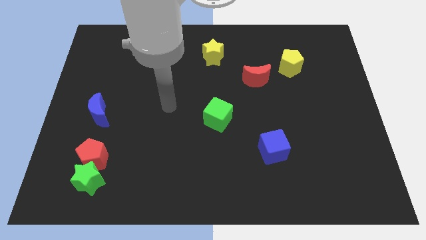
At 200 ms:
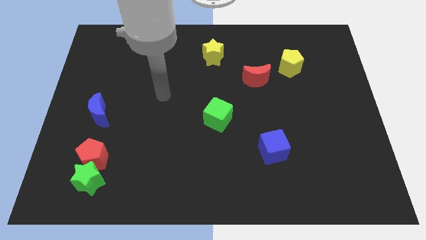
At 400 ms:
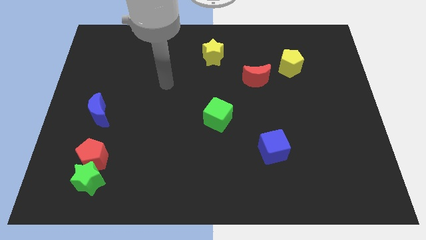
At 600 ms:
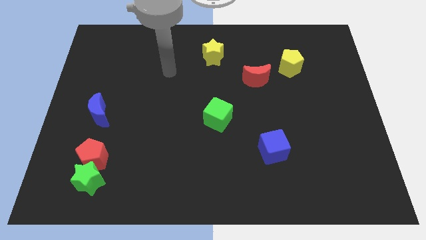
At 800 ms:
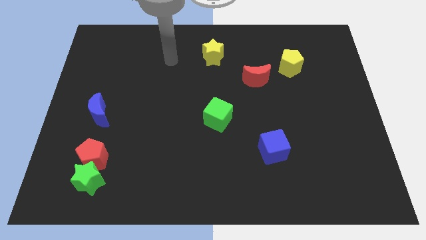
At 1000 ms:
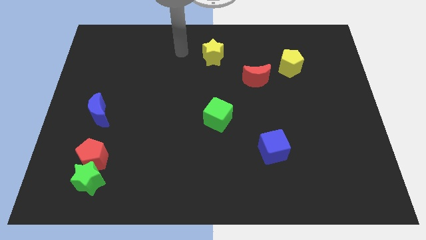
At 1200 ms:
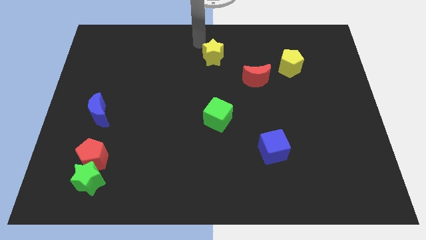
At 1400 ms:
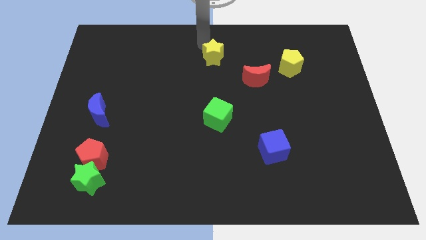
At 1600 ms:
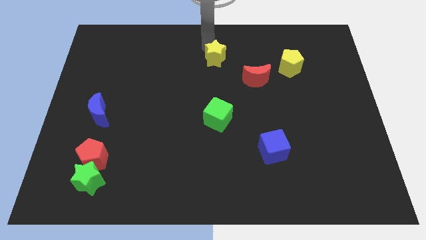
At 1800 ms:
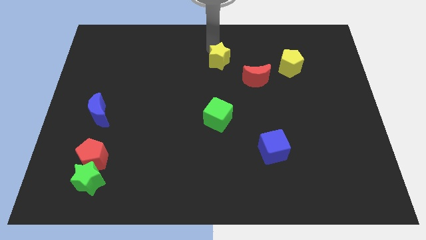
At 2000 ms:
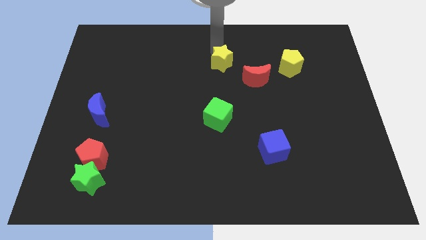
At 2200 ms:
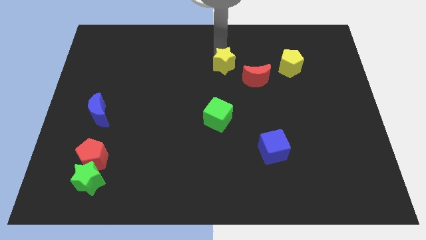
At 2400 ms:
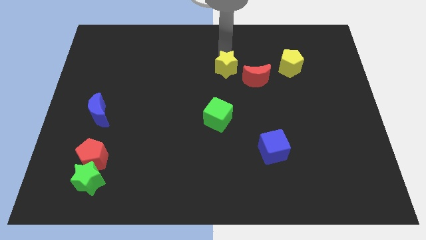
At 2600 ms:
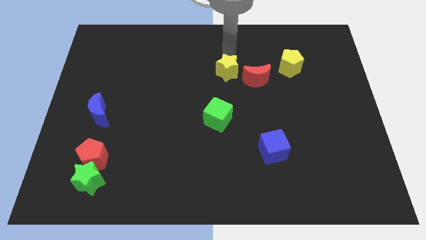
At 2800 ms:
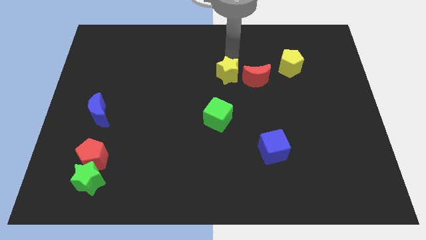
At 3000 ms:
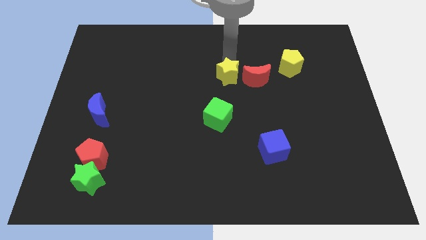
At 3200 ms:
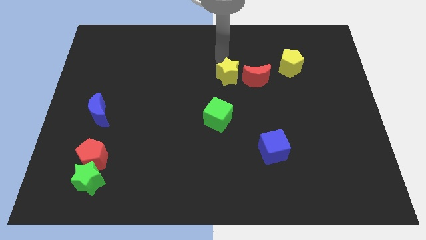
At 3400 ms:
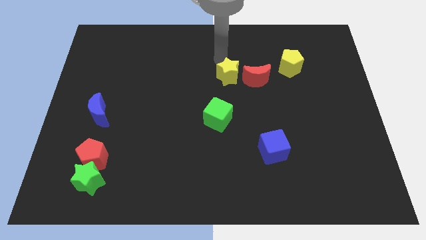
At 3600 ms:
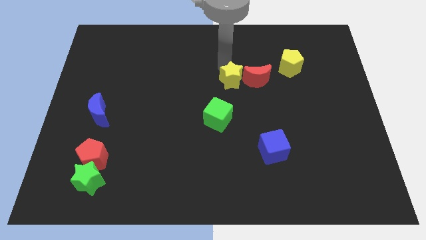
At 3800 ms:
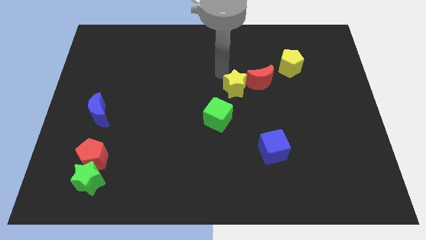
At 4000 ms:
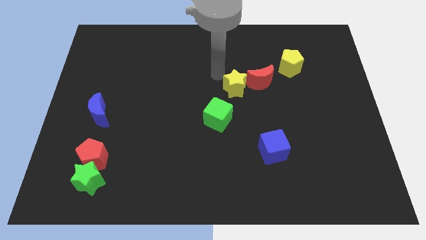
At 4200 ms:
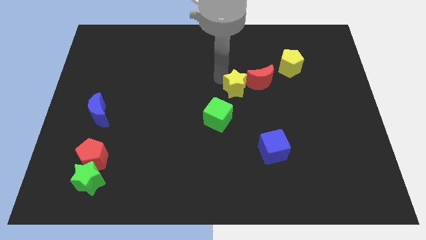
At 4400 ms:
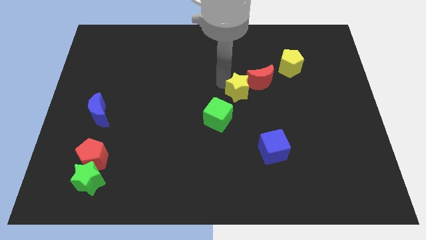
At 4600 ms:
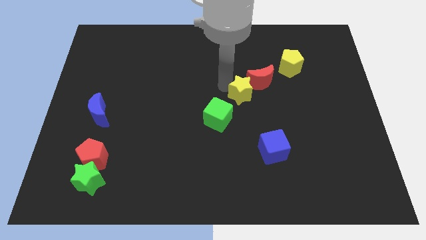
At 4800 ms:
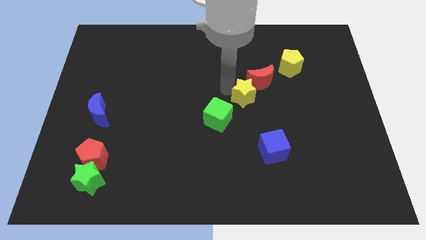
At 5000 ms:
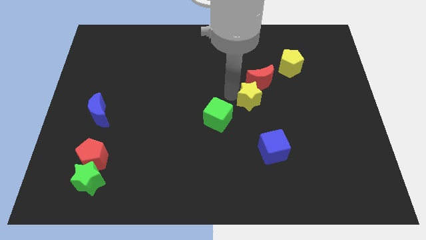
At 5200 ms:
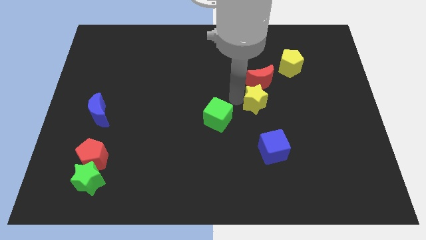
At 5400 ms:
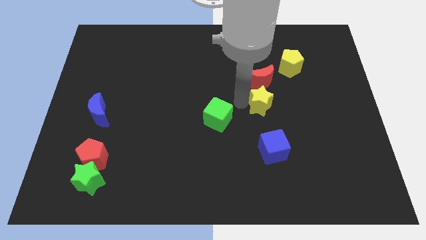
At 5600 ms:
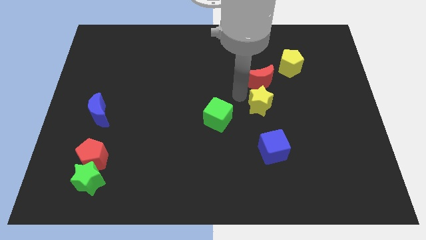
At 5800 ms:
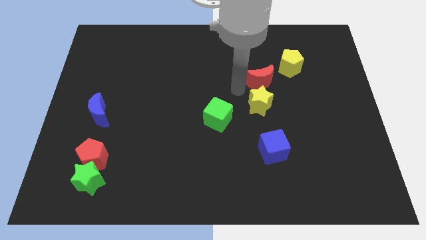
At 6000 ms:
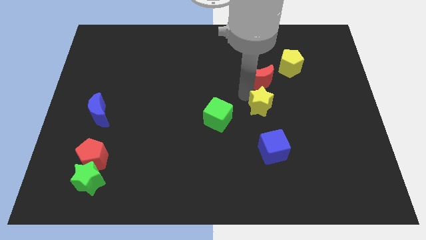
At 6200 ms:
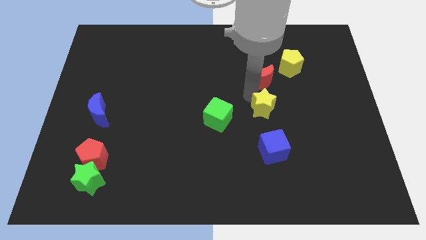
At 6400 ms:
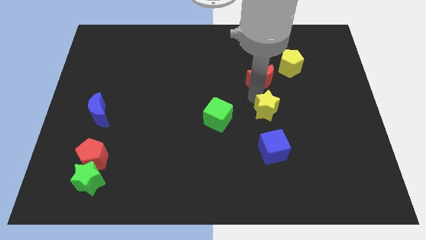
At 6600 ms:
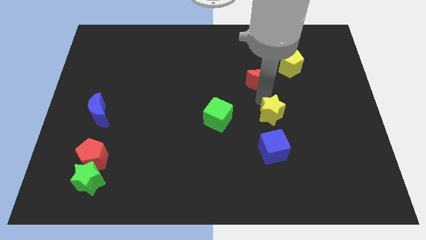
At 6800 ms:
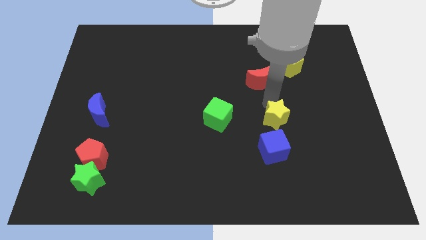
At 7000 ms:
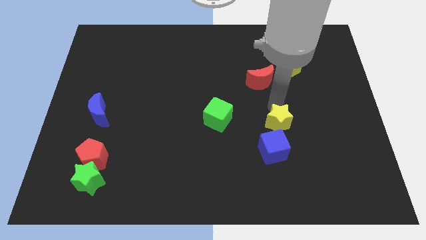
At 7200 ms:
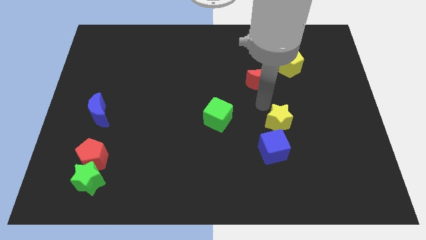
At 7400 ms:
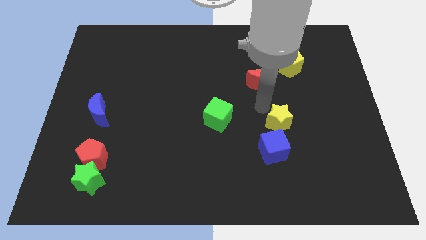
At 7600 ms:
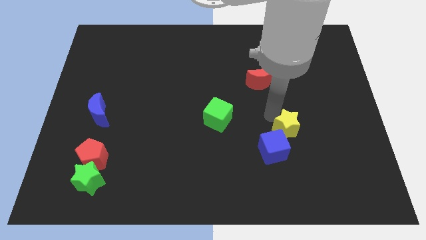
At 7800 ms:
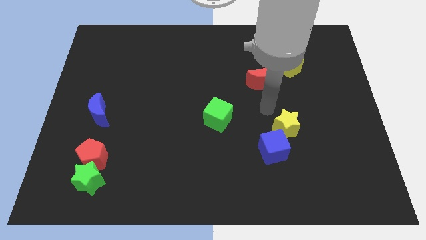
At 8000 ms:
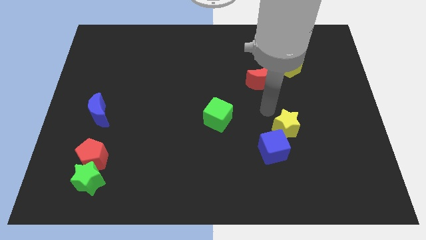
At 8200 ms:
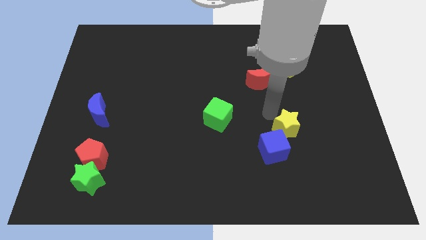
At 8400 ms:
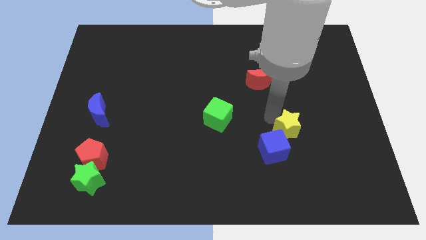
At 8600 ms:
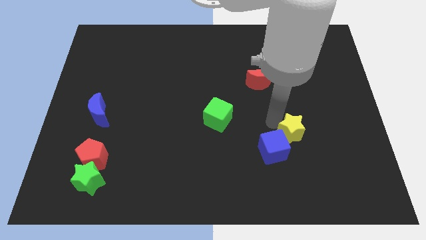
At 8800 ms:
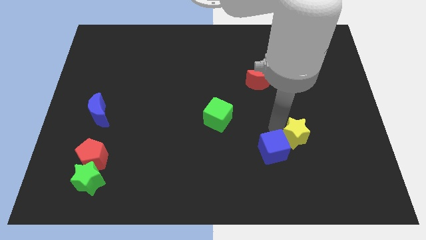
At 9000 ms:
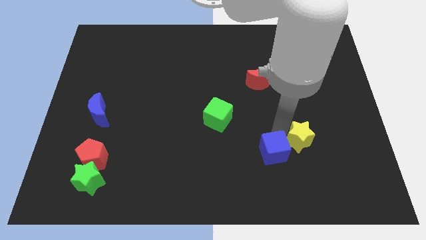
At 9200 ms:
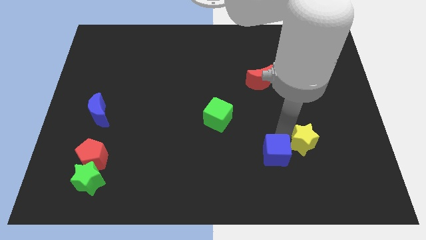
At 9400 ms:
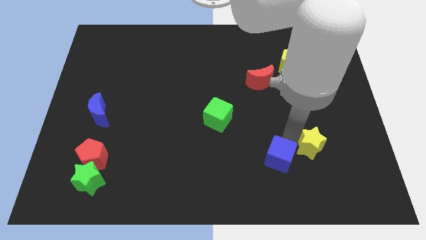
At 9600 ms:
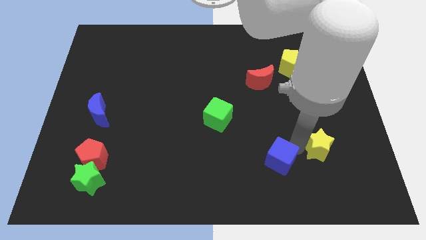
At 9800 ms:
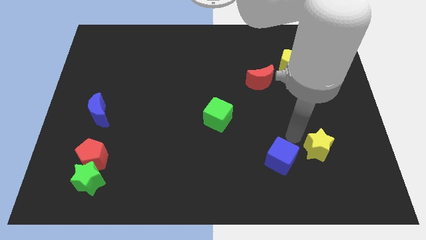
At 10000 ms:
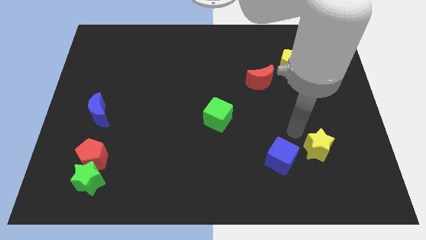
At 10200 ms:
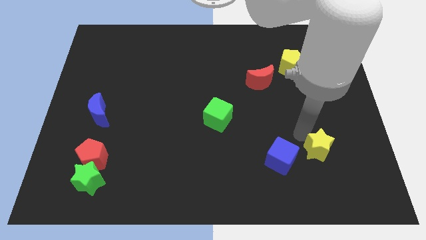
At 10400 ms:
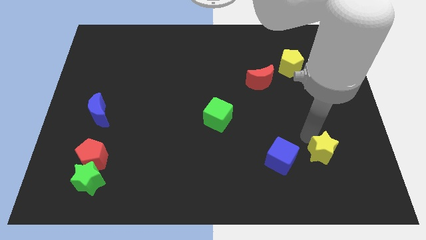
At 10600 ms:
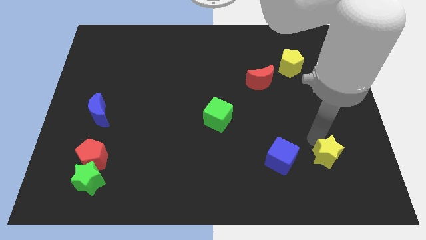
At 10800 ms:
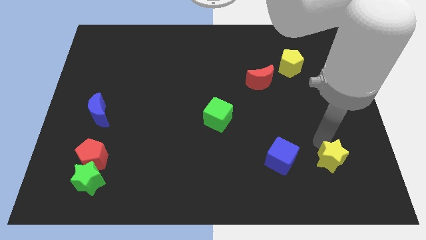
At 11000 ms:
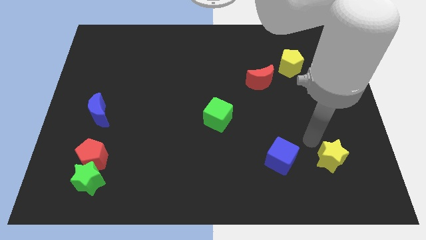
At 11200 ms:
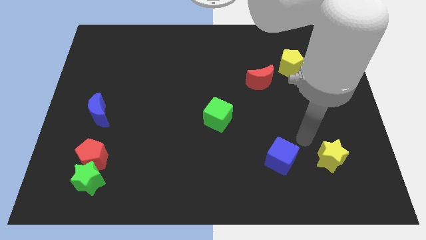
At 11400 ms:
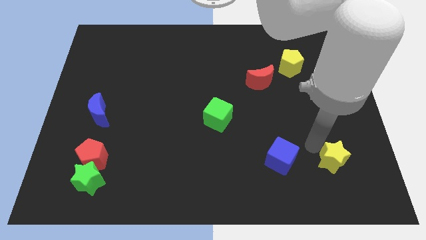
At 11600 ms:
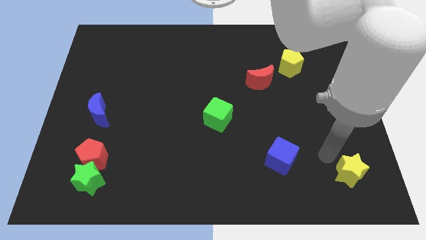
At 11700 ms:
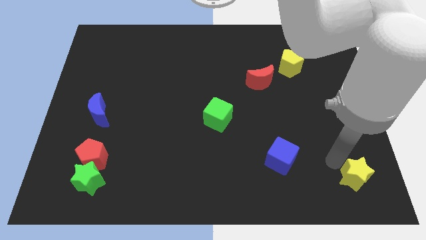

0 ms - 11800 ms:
slide the yellow star to the bottom right corner
